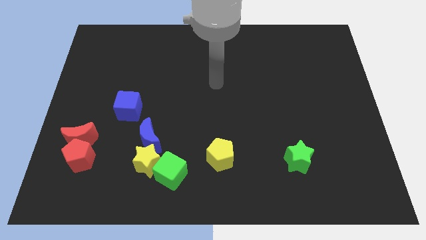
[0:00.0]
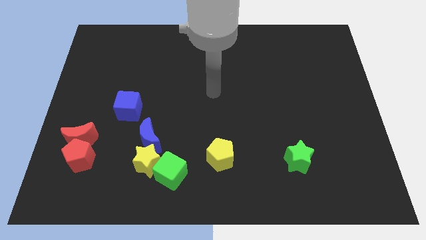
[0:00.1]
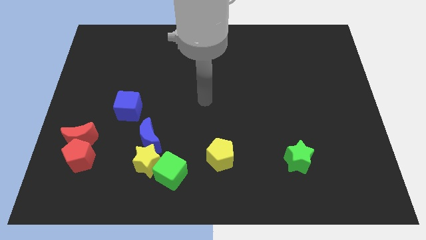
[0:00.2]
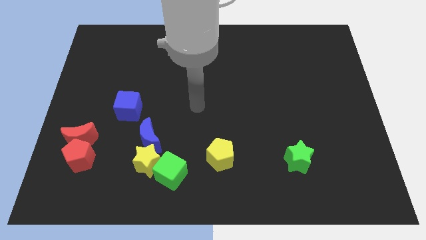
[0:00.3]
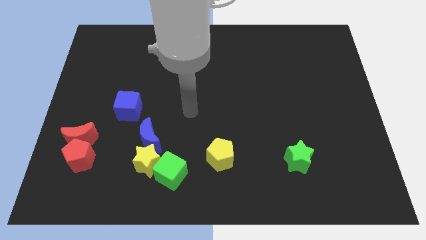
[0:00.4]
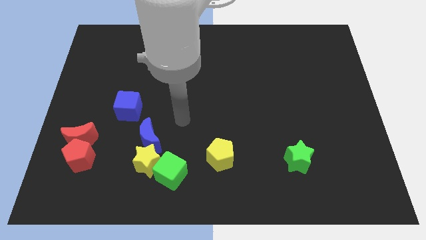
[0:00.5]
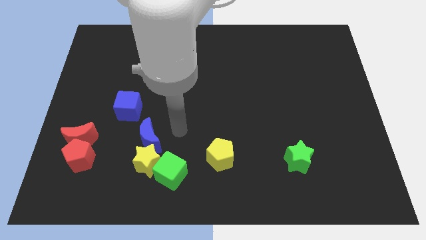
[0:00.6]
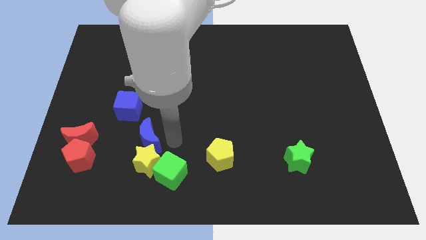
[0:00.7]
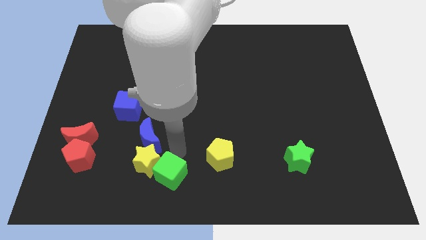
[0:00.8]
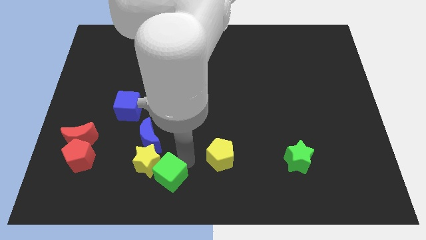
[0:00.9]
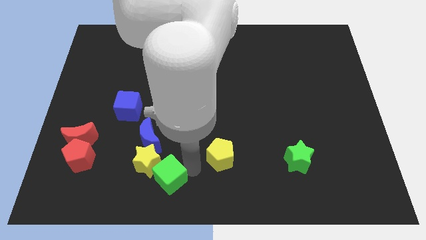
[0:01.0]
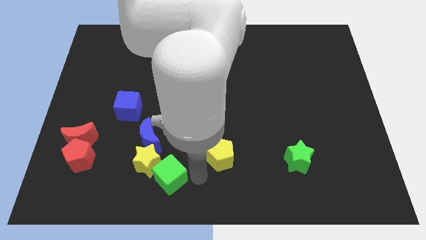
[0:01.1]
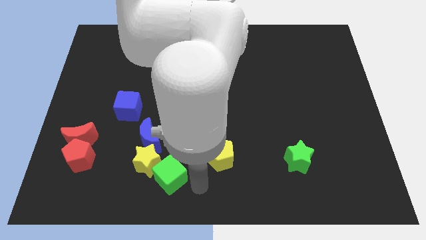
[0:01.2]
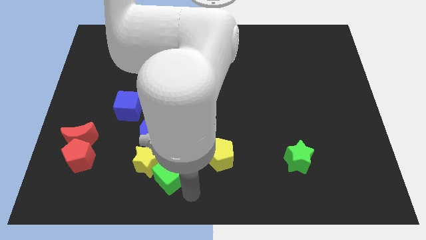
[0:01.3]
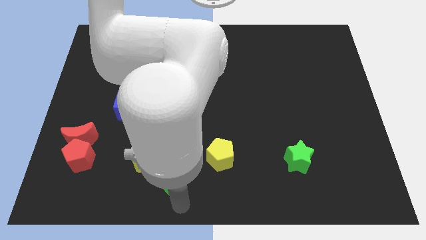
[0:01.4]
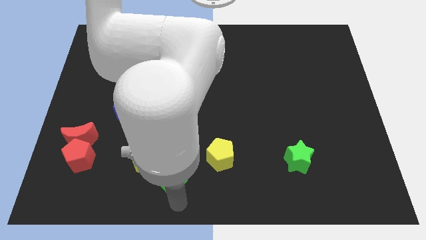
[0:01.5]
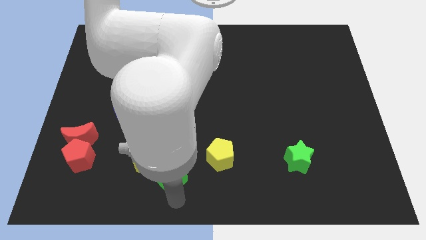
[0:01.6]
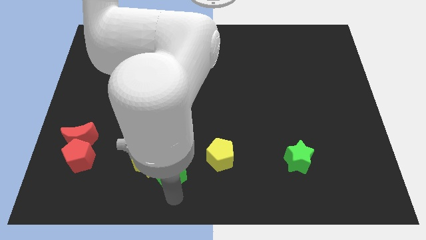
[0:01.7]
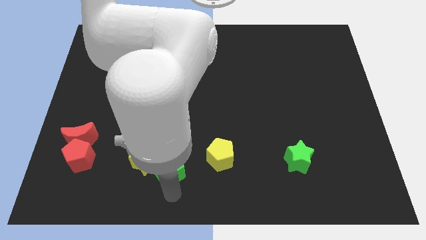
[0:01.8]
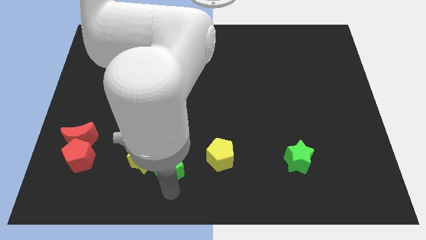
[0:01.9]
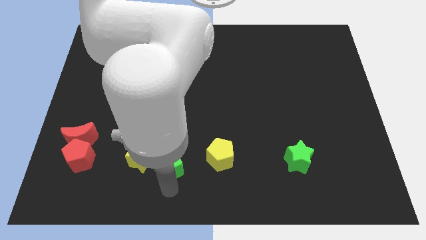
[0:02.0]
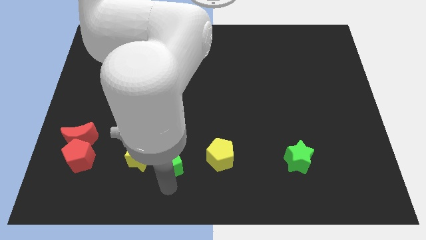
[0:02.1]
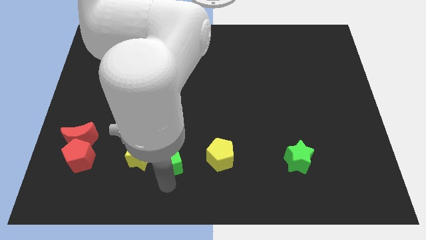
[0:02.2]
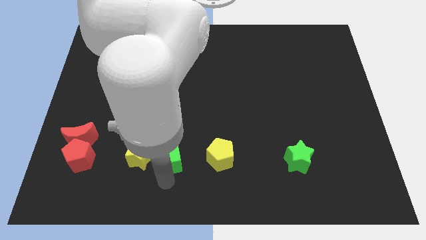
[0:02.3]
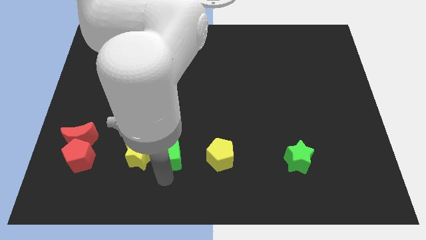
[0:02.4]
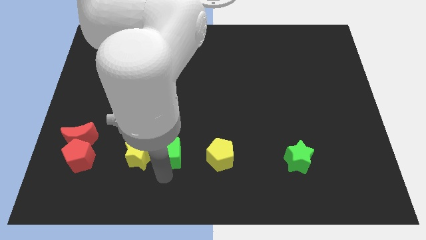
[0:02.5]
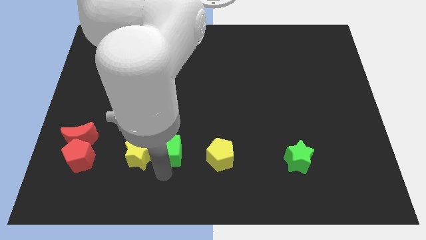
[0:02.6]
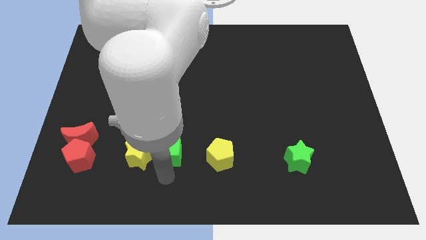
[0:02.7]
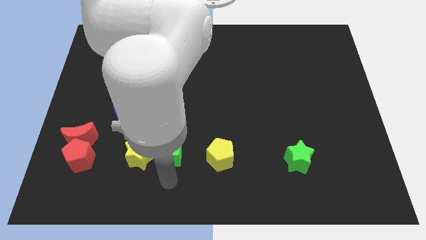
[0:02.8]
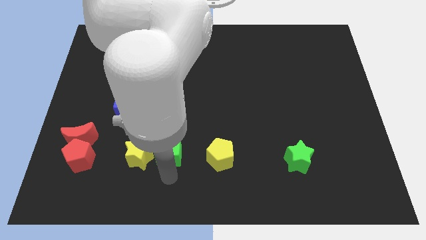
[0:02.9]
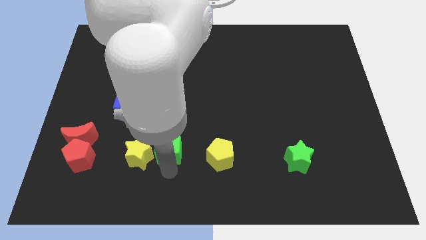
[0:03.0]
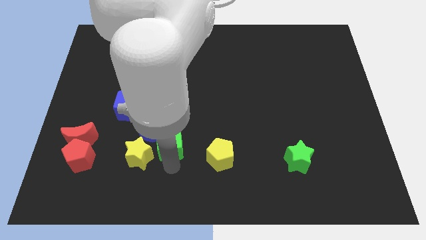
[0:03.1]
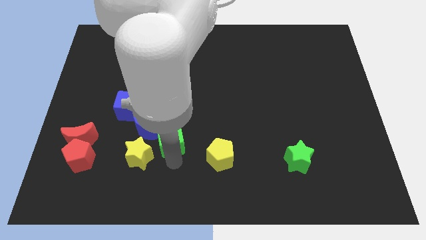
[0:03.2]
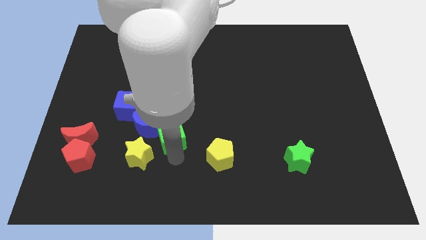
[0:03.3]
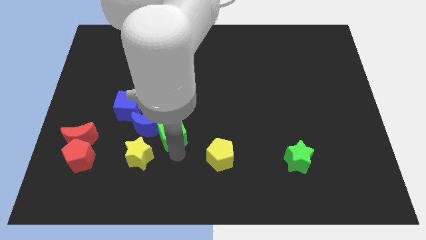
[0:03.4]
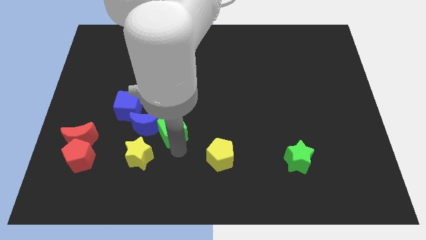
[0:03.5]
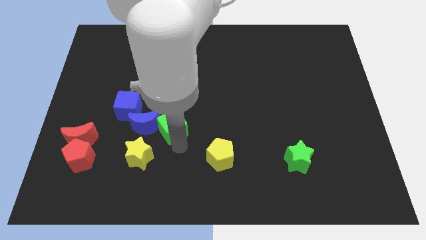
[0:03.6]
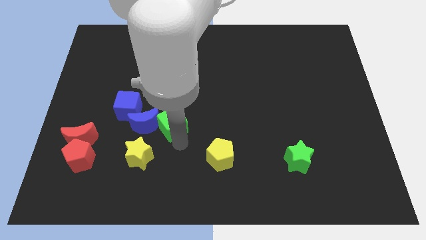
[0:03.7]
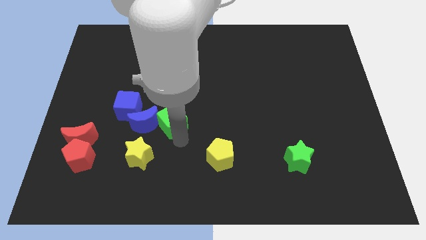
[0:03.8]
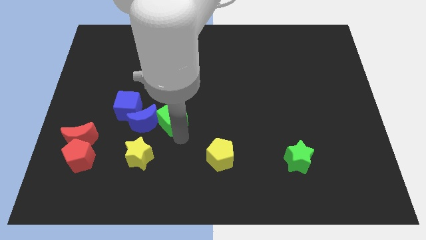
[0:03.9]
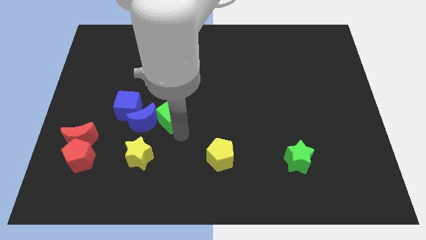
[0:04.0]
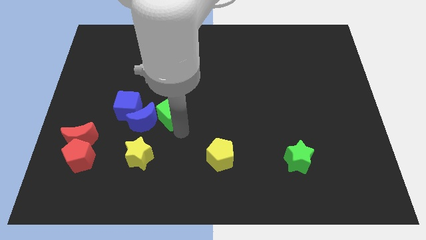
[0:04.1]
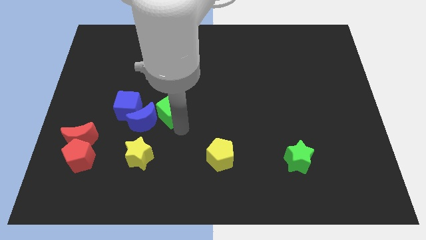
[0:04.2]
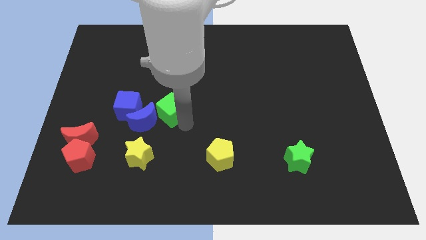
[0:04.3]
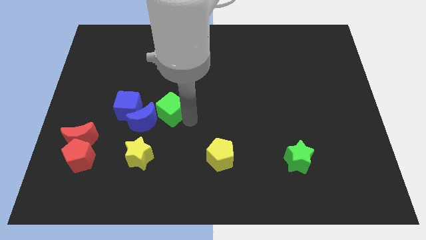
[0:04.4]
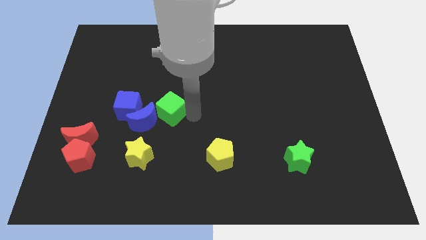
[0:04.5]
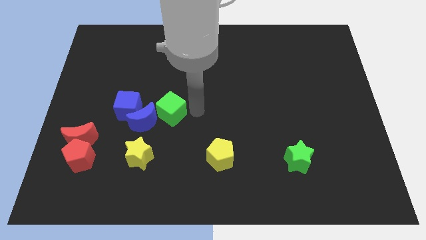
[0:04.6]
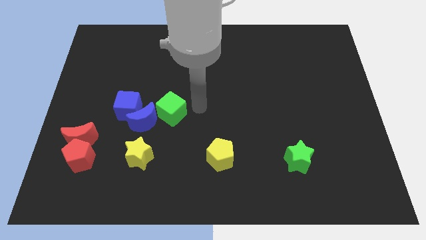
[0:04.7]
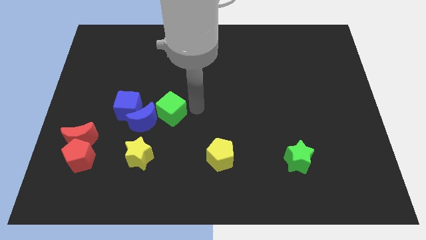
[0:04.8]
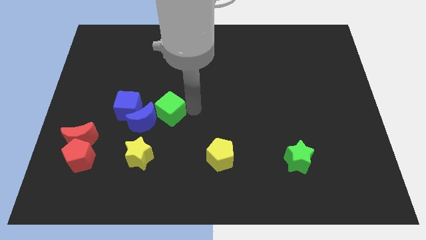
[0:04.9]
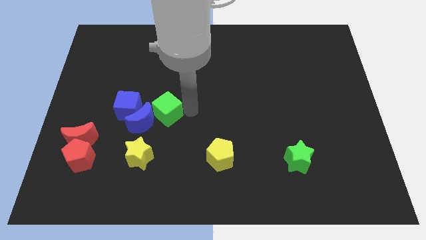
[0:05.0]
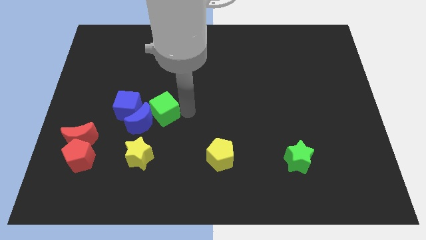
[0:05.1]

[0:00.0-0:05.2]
move the green cube to the top of the yellow star

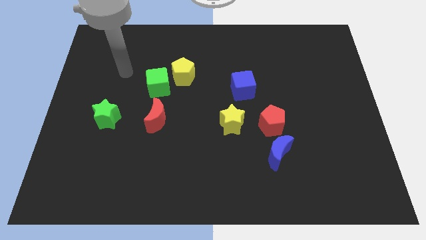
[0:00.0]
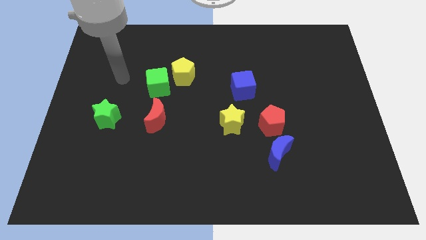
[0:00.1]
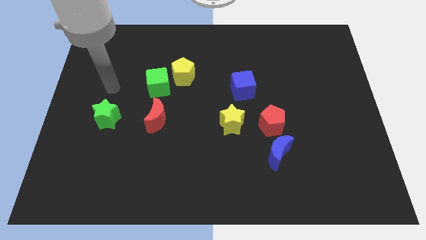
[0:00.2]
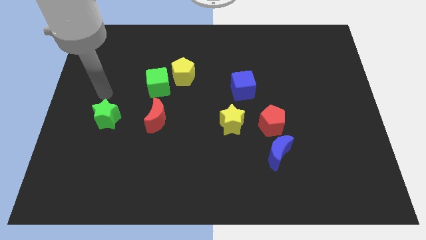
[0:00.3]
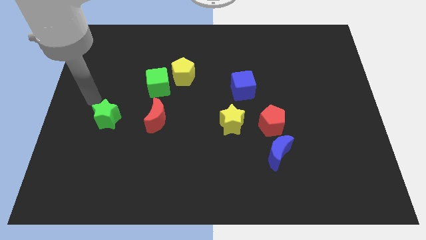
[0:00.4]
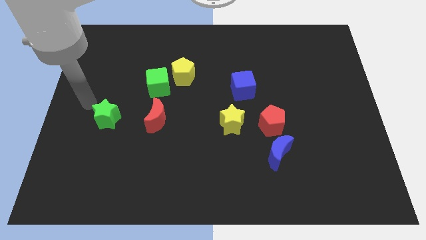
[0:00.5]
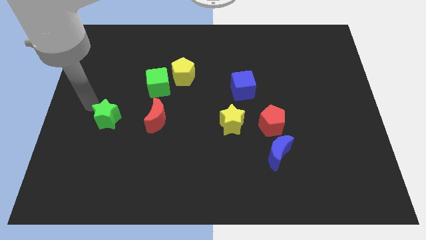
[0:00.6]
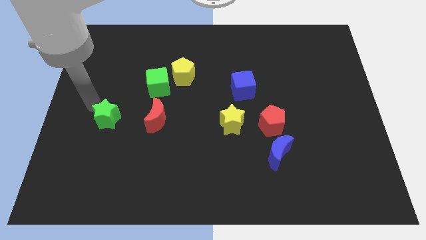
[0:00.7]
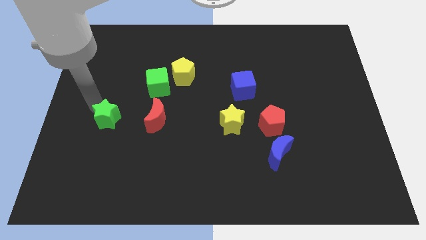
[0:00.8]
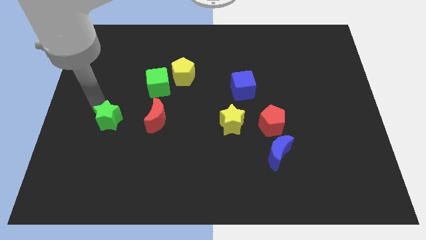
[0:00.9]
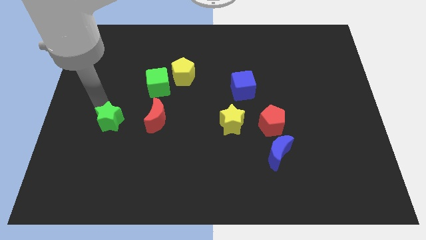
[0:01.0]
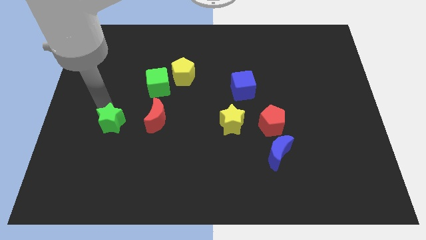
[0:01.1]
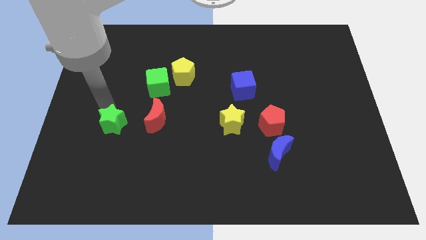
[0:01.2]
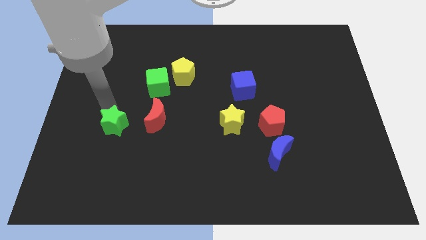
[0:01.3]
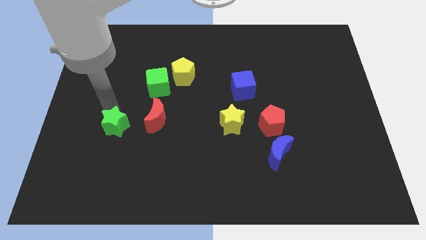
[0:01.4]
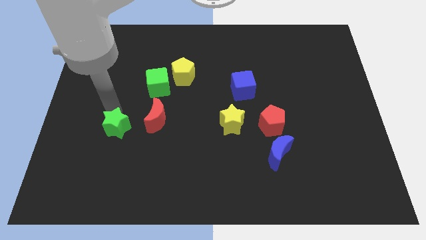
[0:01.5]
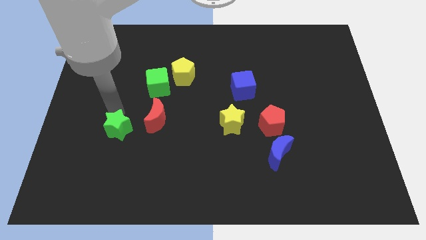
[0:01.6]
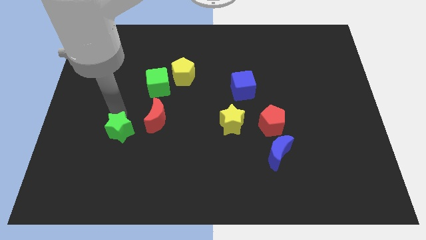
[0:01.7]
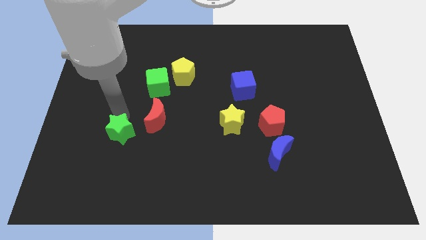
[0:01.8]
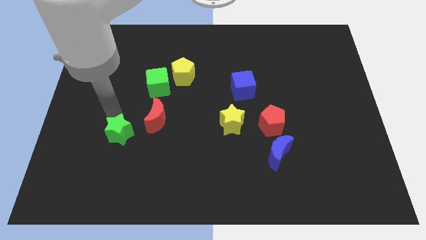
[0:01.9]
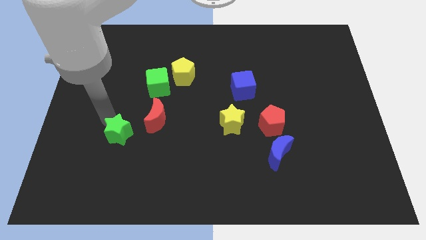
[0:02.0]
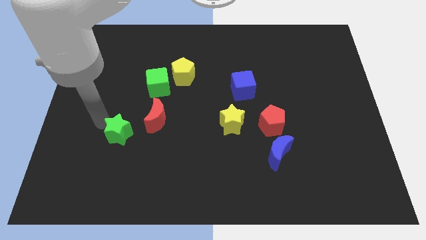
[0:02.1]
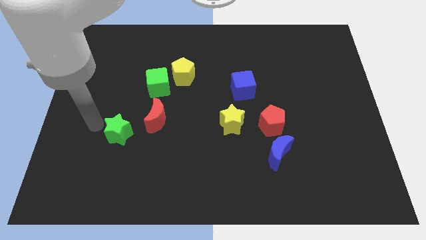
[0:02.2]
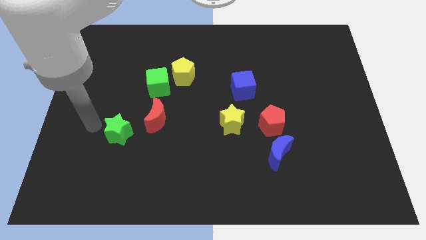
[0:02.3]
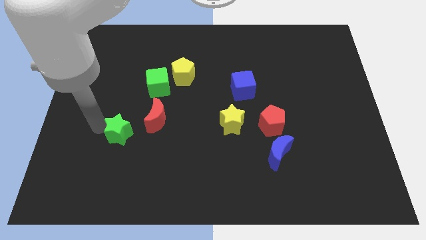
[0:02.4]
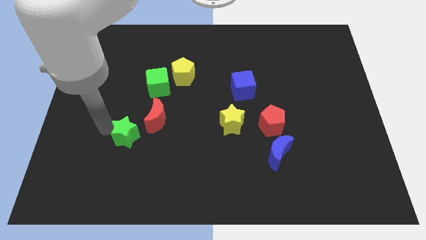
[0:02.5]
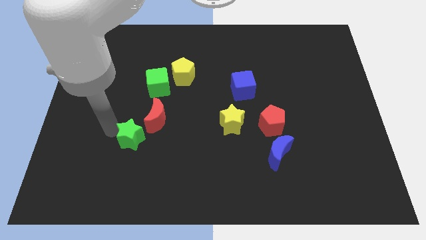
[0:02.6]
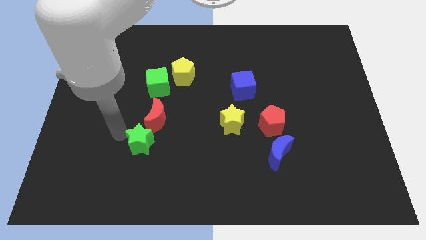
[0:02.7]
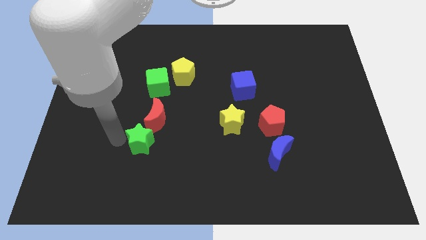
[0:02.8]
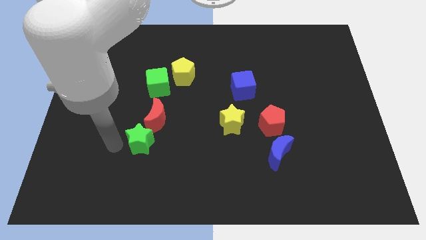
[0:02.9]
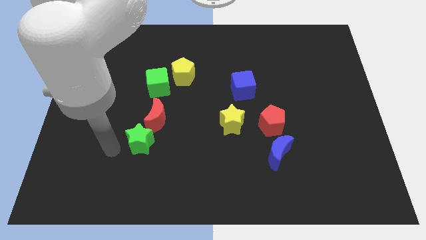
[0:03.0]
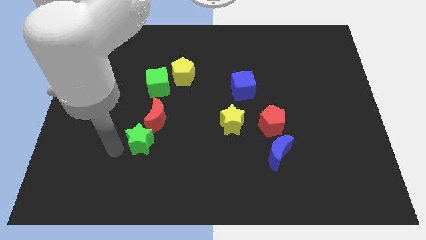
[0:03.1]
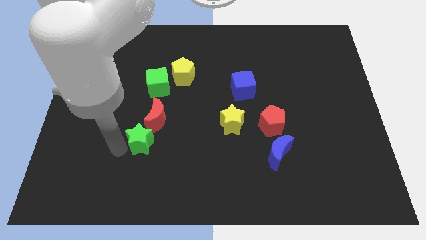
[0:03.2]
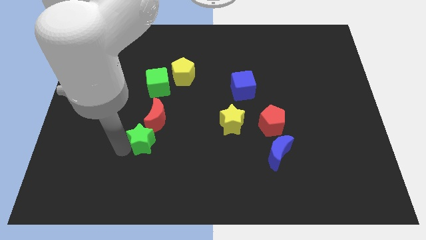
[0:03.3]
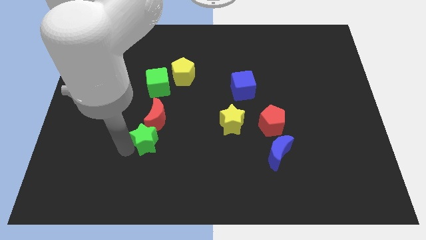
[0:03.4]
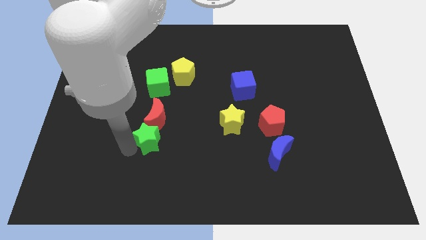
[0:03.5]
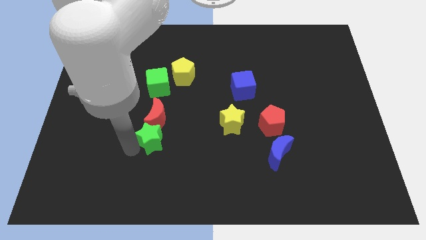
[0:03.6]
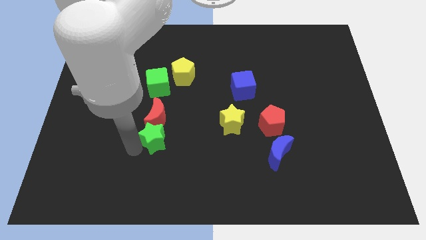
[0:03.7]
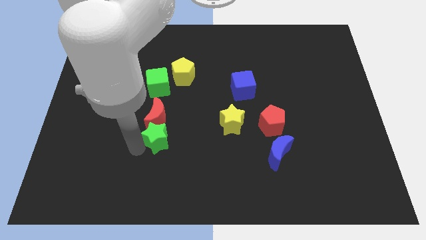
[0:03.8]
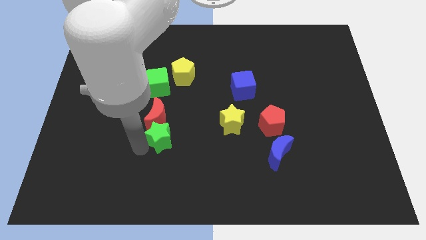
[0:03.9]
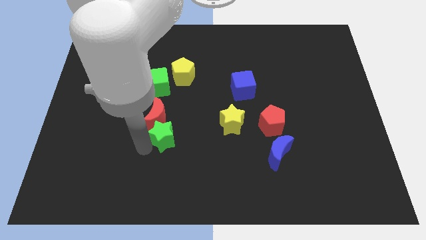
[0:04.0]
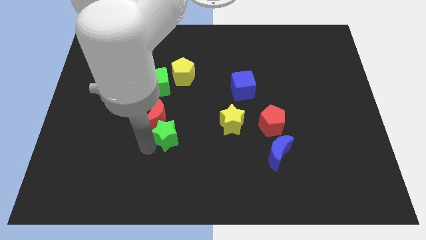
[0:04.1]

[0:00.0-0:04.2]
put the green star left of the yellow star
